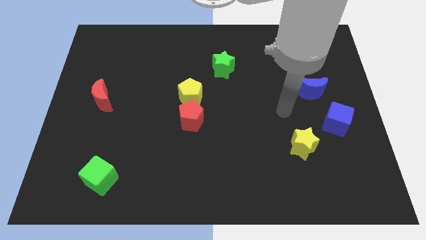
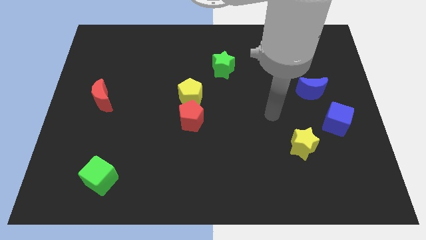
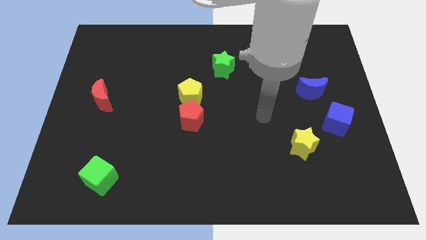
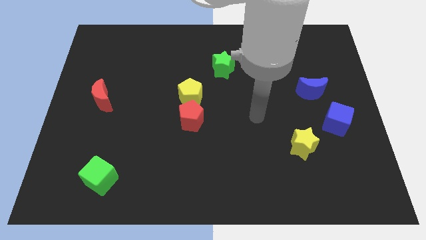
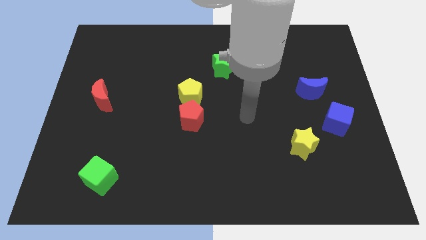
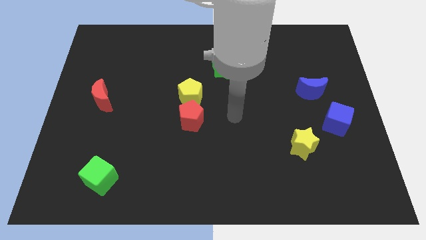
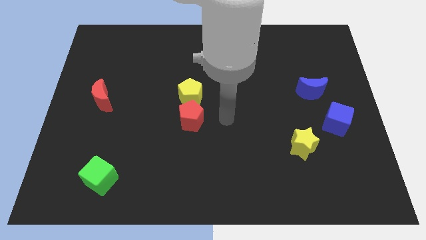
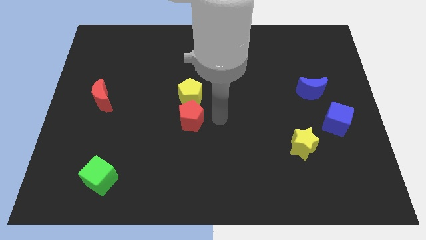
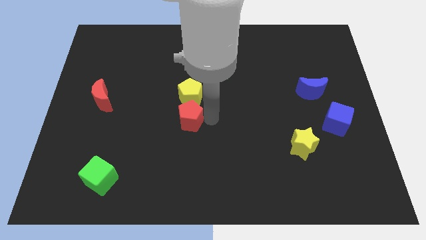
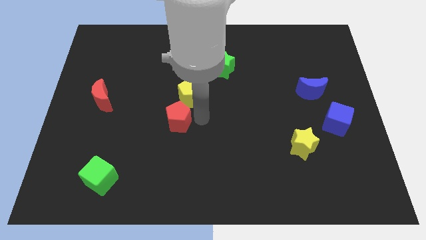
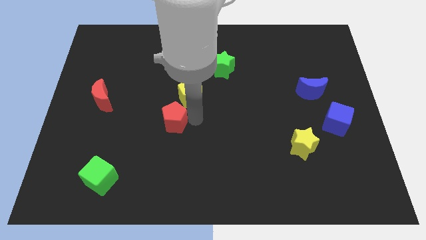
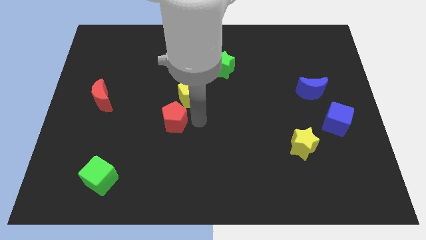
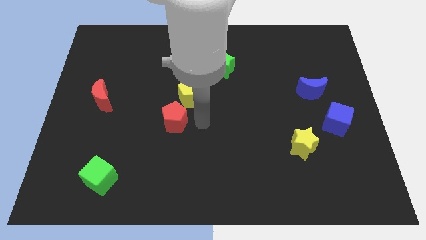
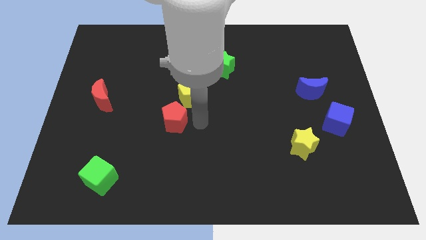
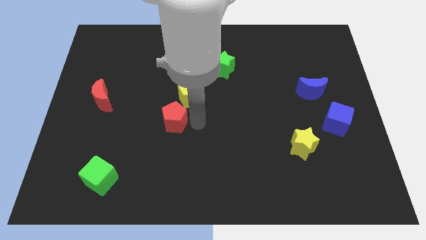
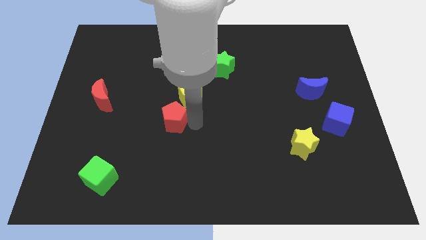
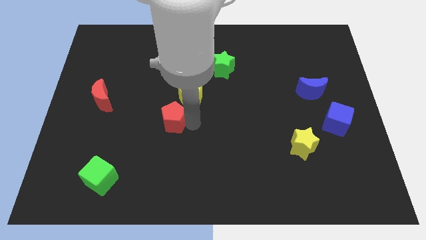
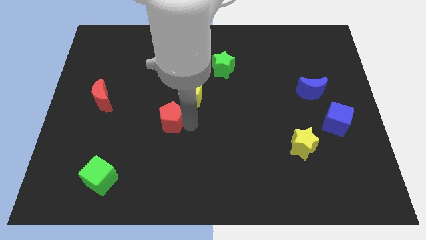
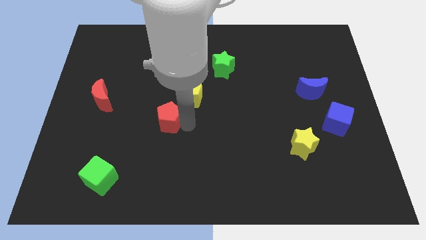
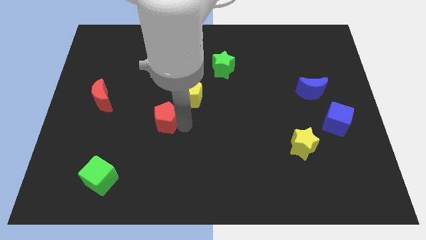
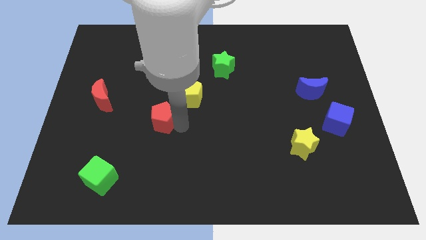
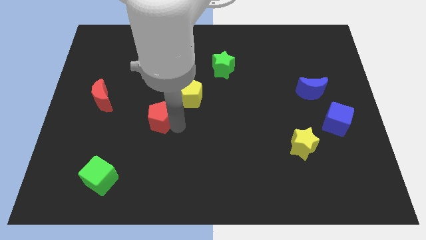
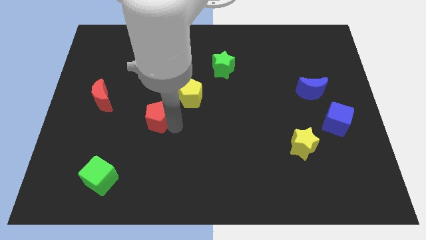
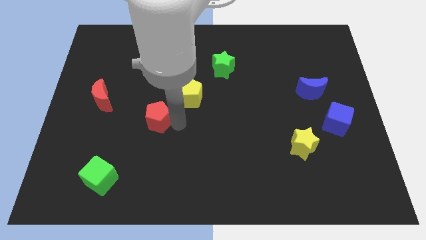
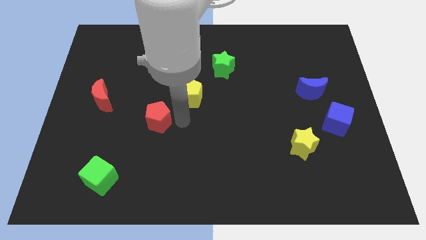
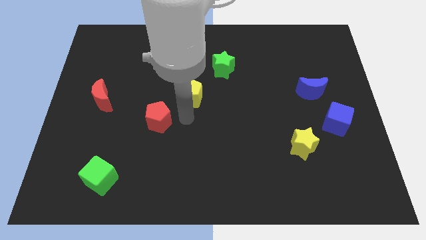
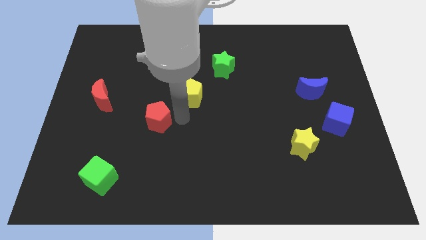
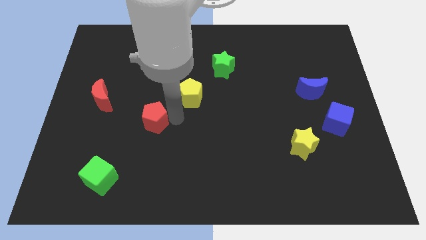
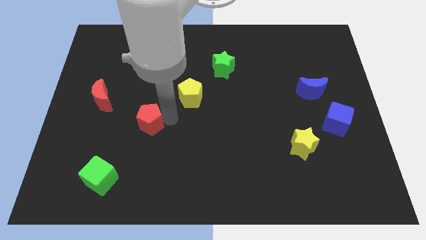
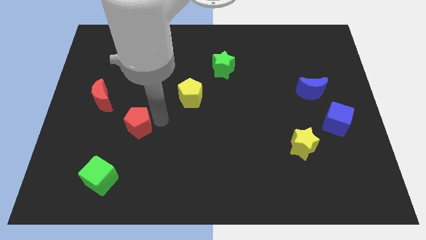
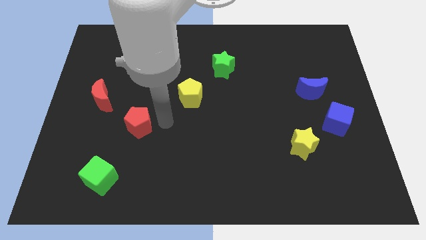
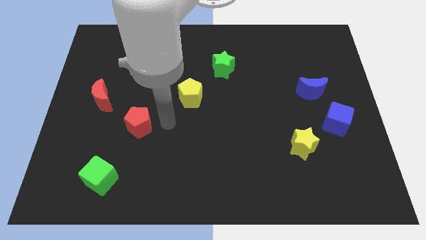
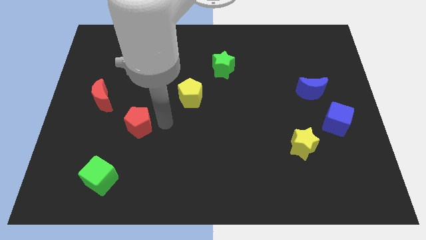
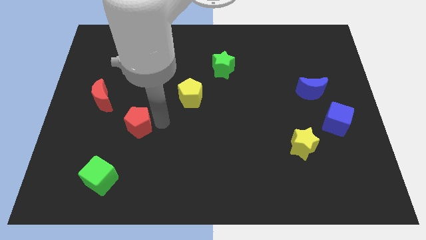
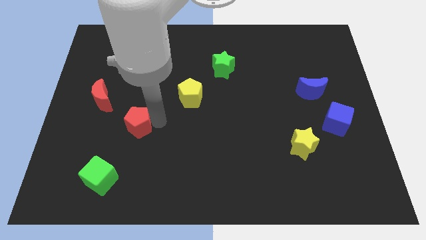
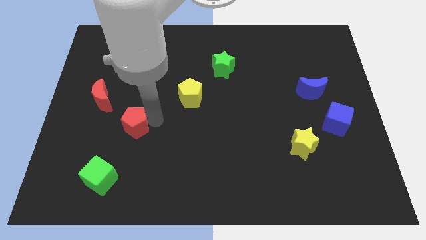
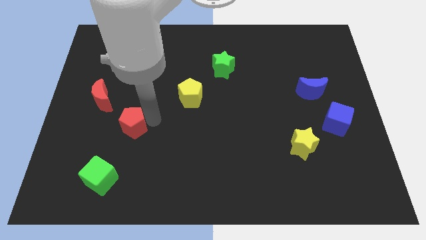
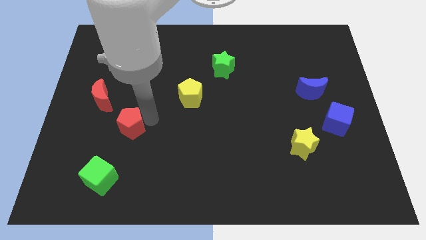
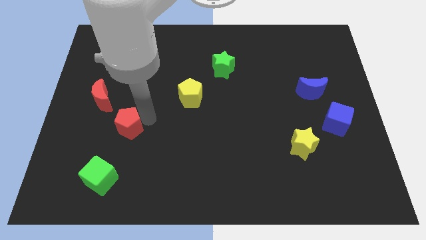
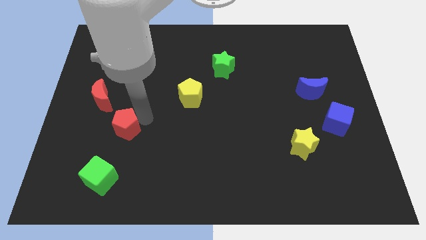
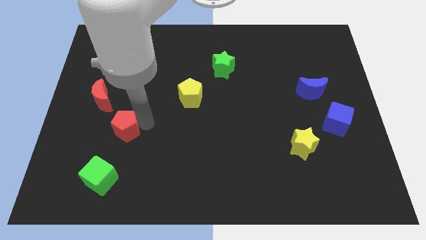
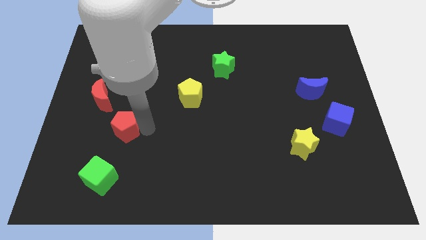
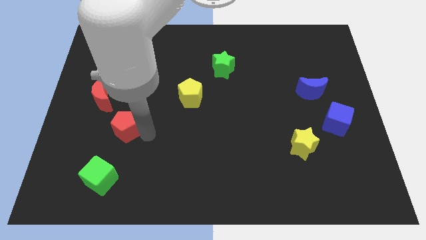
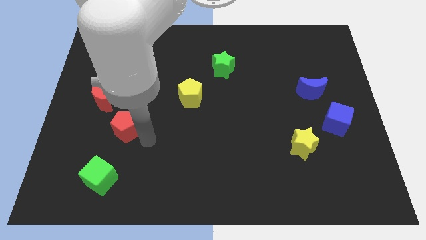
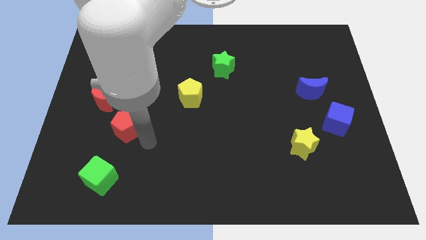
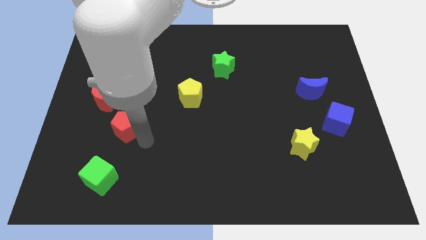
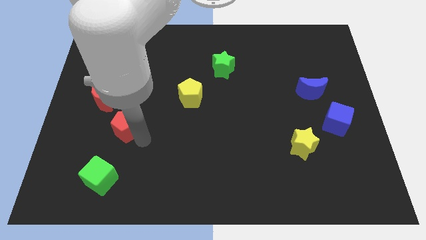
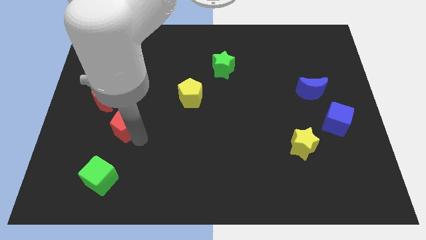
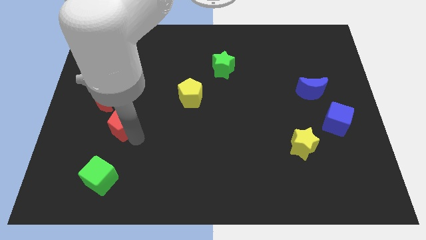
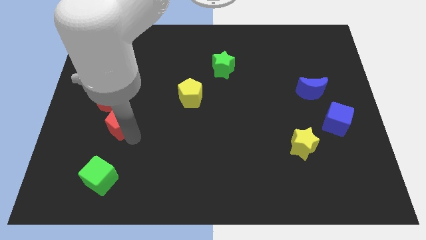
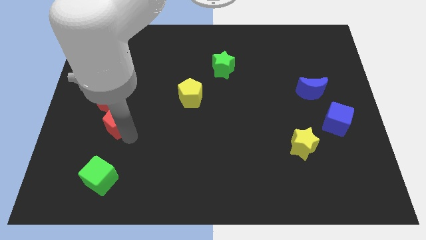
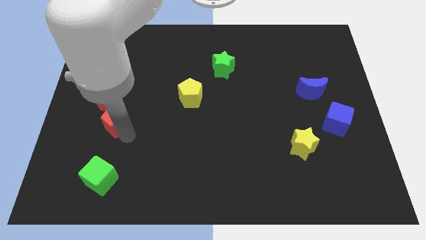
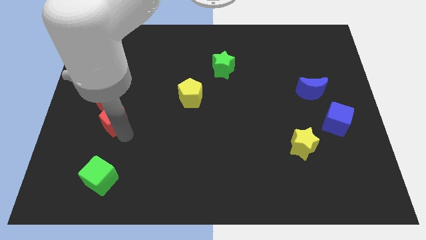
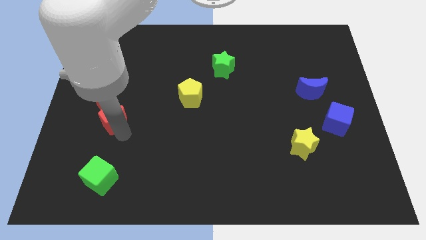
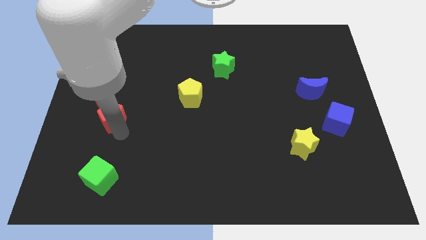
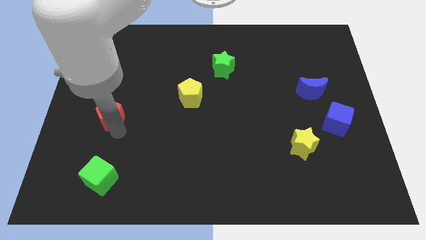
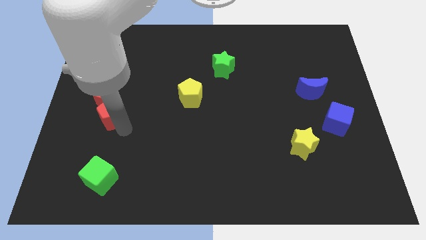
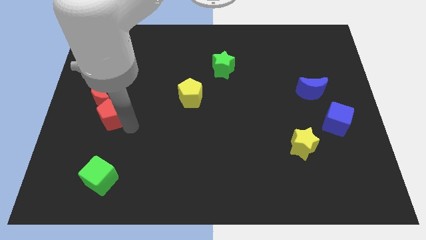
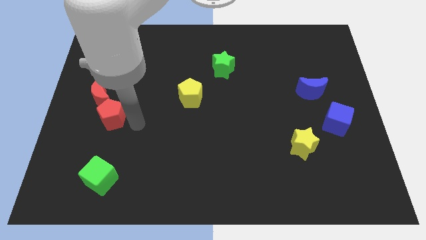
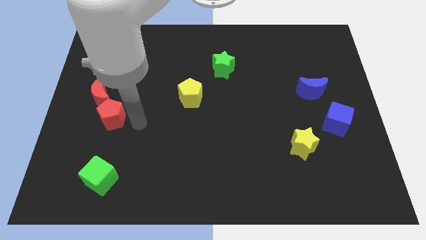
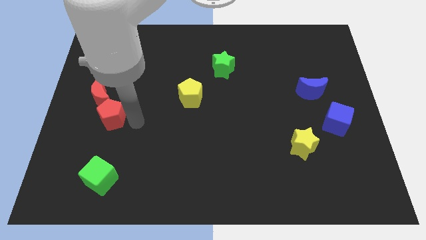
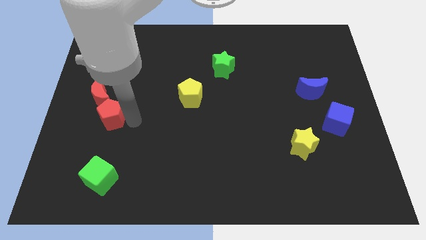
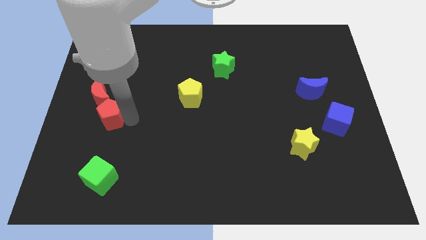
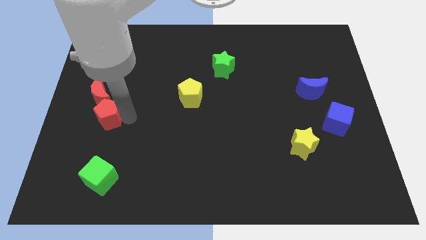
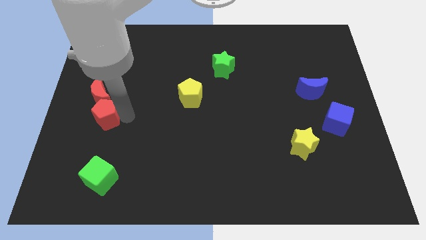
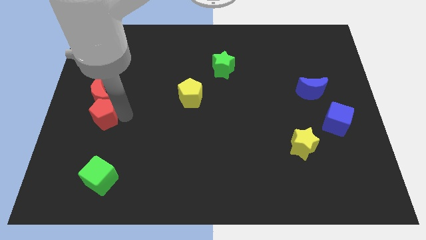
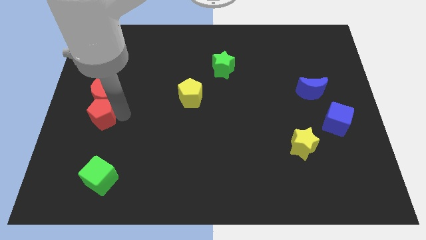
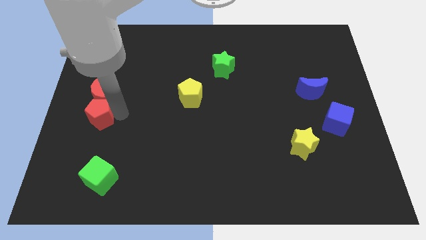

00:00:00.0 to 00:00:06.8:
put the red pentagon to the center left

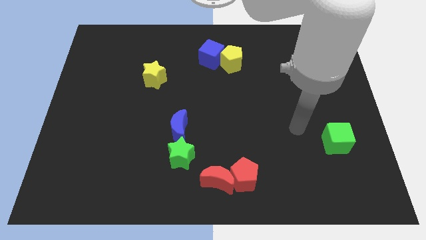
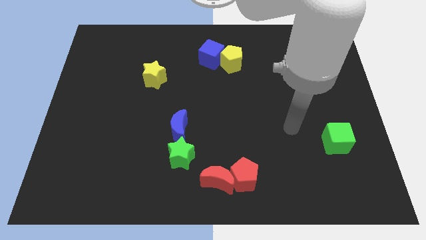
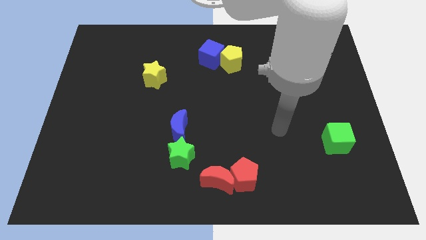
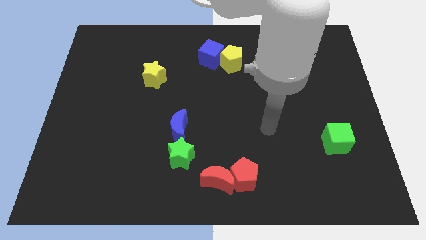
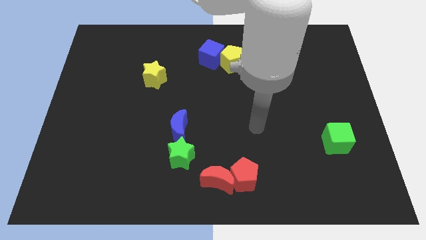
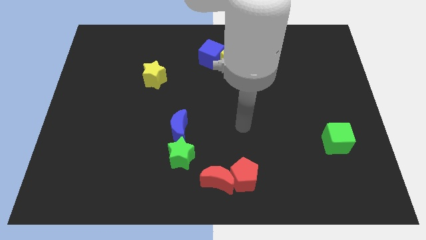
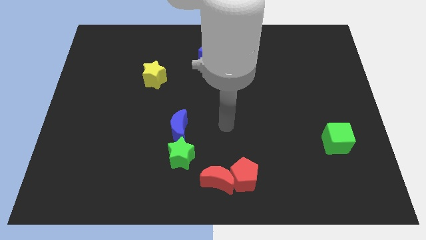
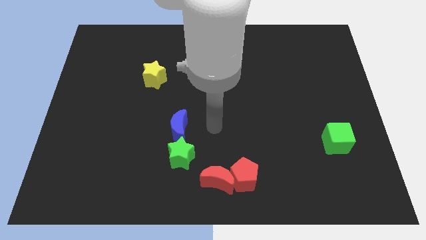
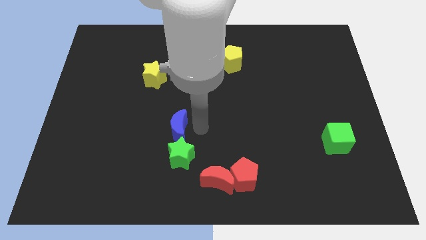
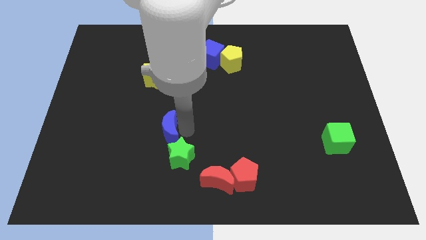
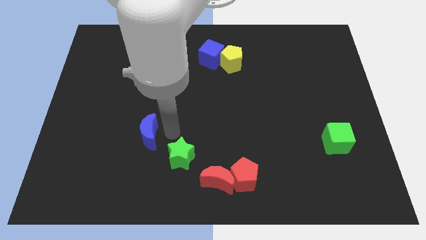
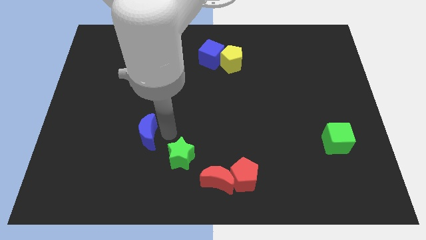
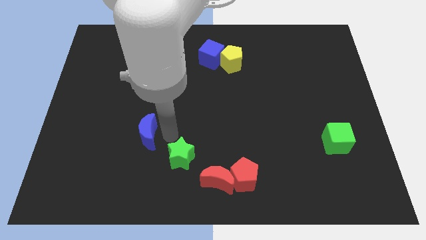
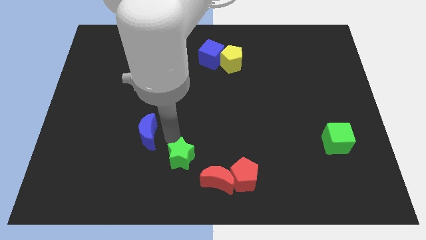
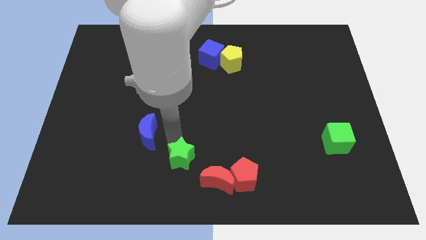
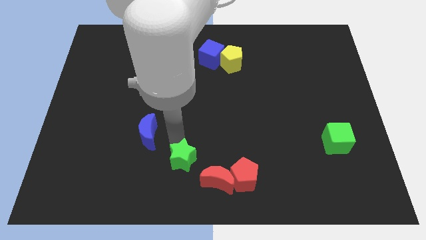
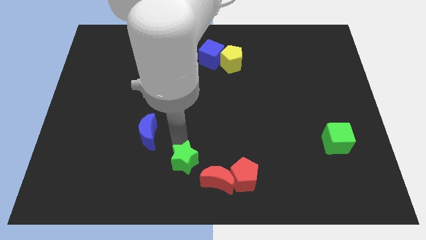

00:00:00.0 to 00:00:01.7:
move the green star to the bottom side
